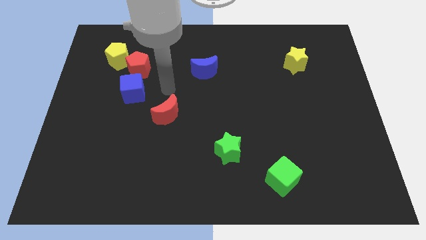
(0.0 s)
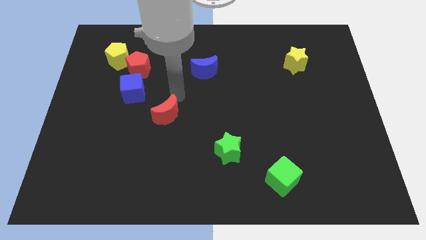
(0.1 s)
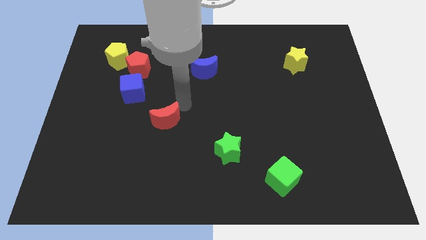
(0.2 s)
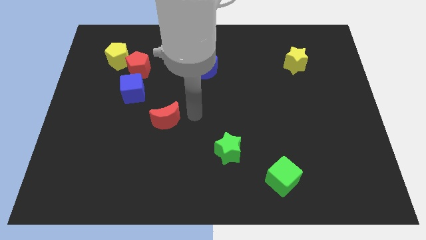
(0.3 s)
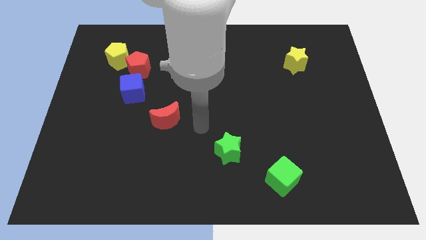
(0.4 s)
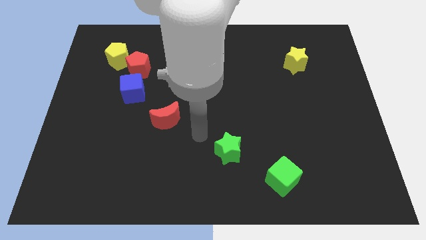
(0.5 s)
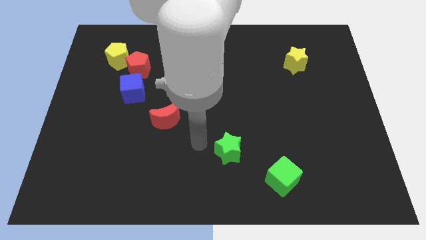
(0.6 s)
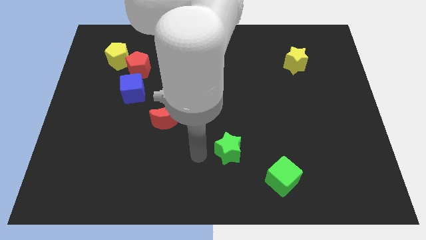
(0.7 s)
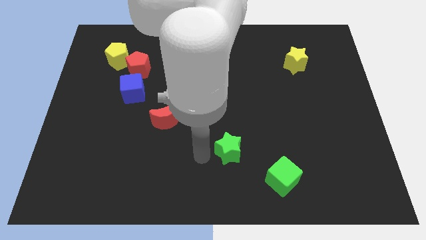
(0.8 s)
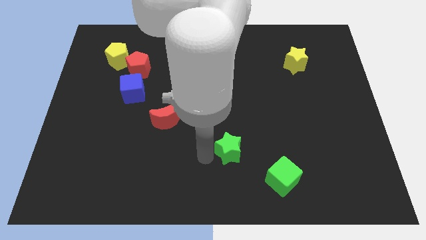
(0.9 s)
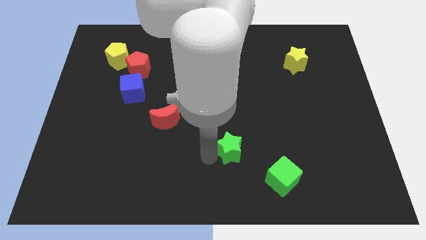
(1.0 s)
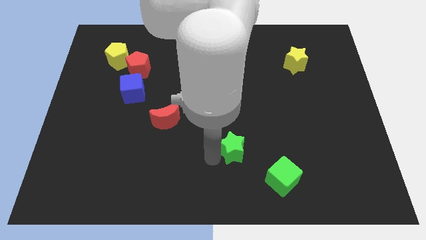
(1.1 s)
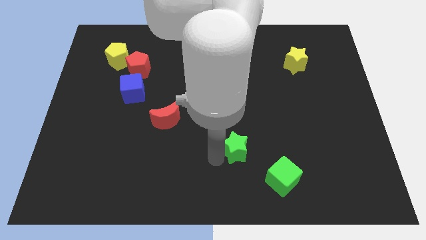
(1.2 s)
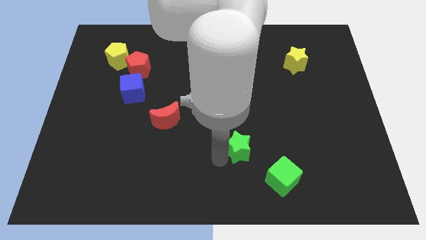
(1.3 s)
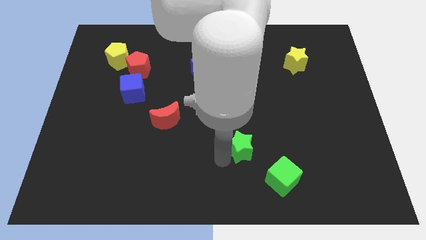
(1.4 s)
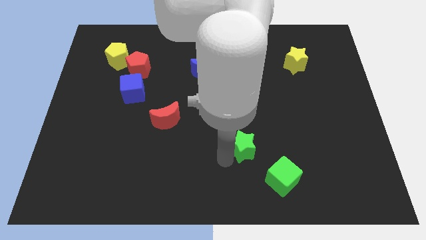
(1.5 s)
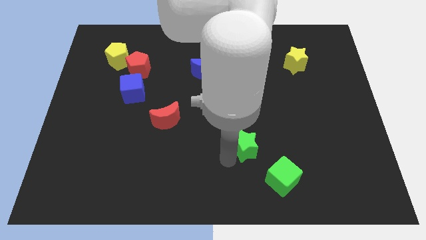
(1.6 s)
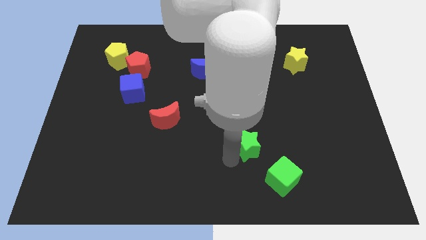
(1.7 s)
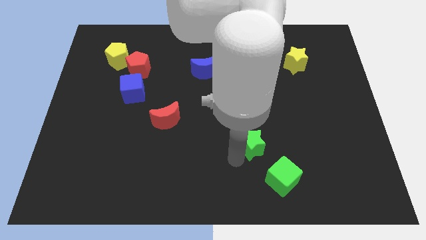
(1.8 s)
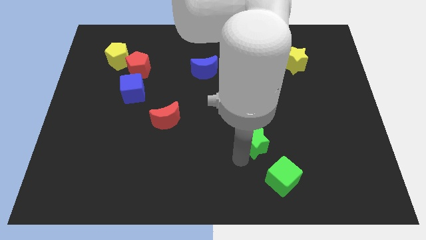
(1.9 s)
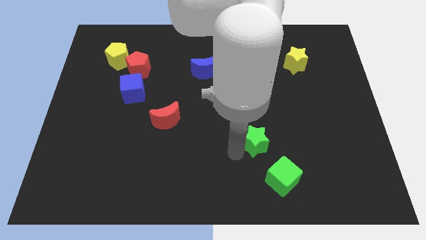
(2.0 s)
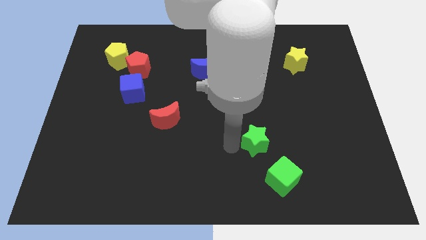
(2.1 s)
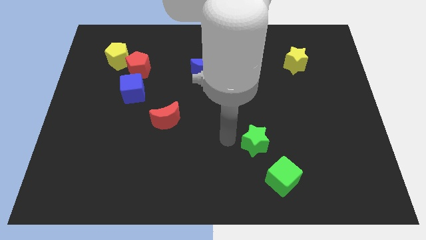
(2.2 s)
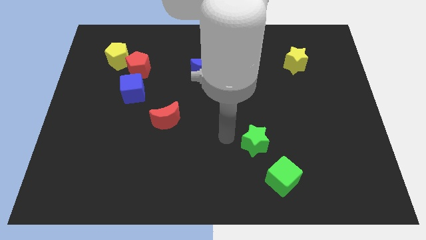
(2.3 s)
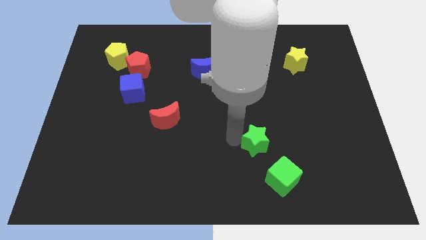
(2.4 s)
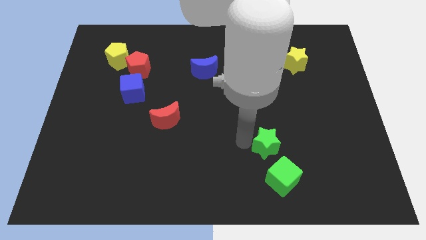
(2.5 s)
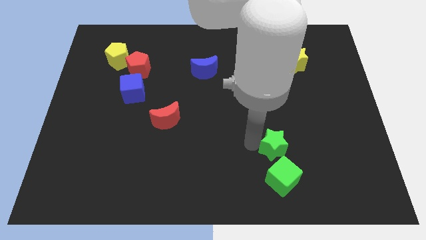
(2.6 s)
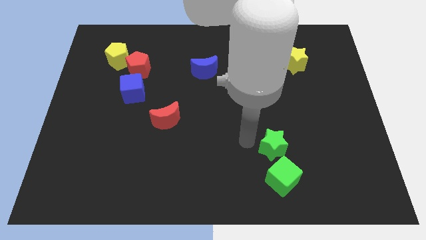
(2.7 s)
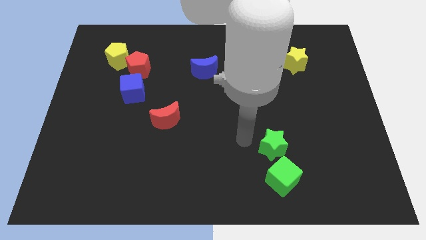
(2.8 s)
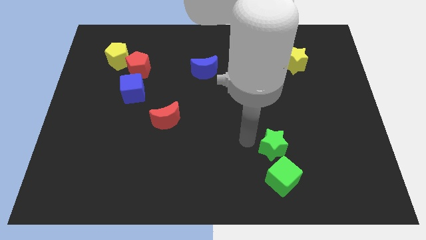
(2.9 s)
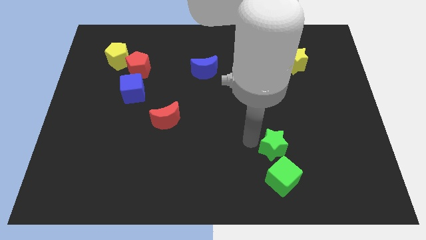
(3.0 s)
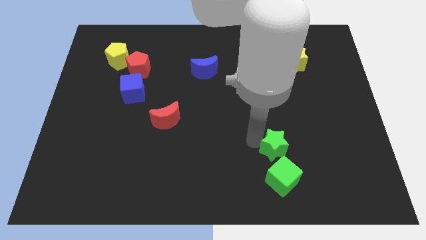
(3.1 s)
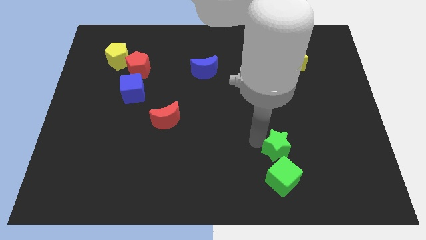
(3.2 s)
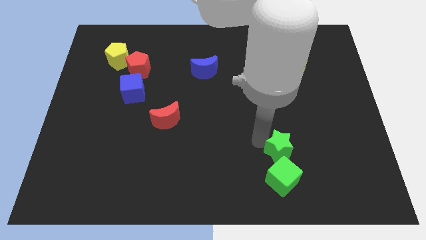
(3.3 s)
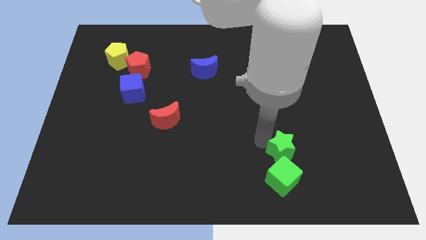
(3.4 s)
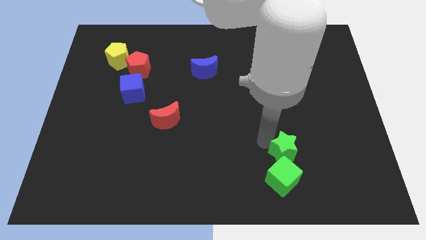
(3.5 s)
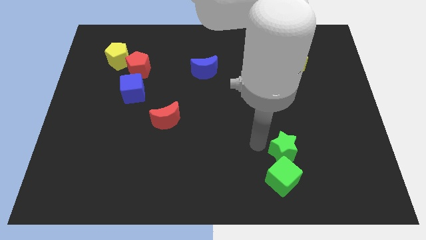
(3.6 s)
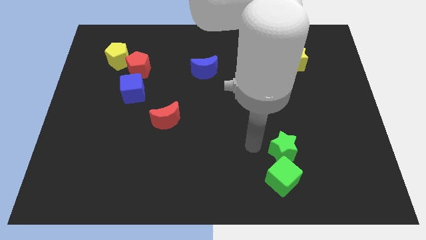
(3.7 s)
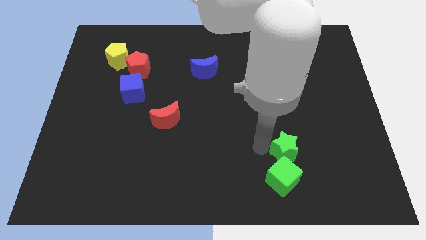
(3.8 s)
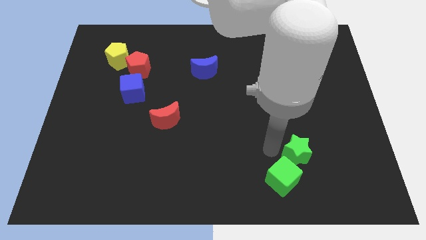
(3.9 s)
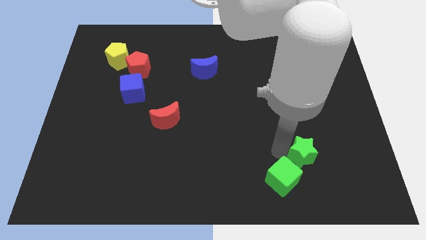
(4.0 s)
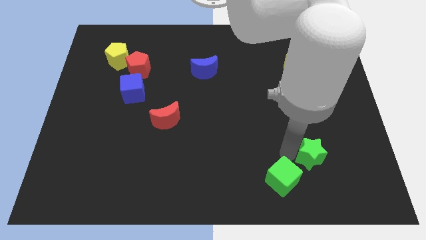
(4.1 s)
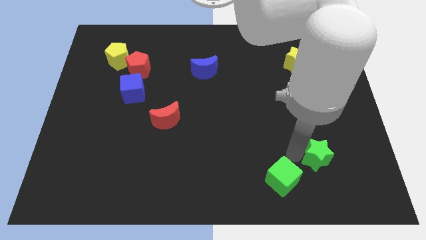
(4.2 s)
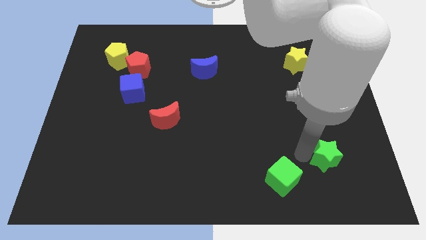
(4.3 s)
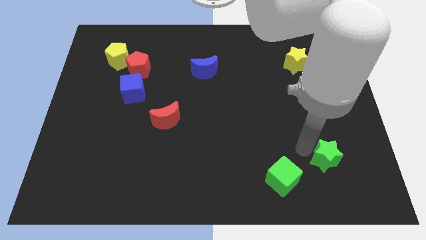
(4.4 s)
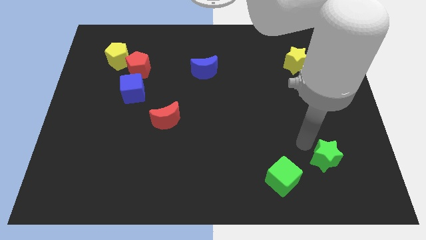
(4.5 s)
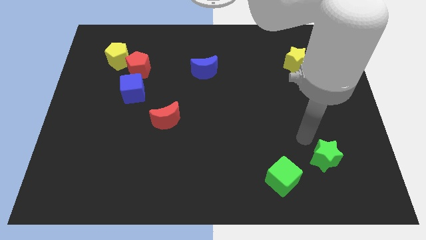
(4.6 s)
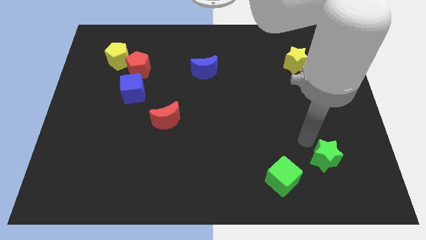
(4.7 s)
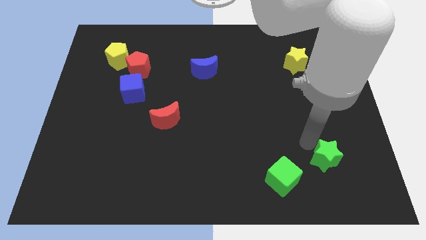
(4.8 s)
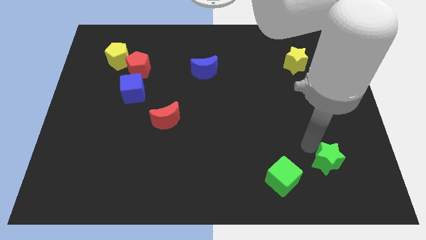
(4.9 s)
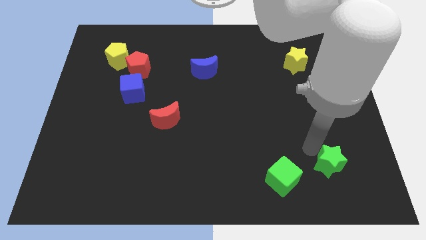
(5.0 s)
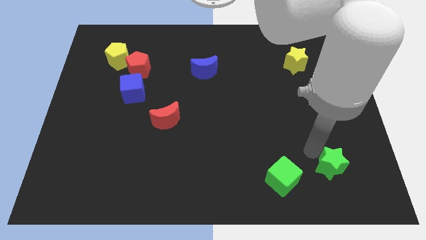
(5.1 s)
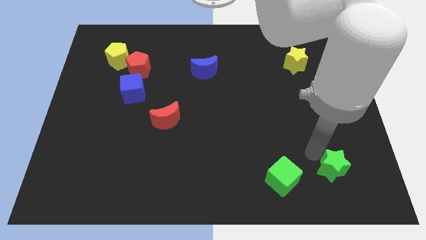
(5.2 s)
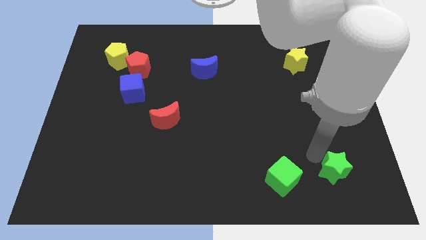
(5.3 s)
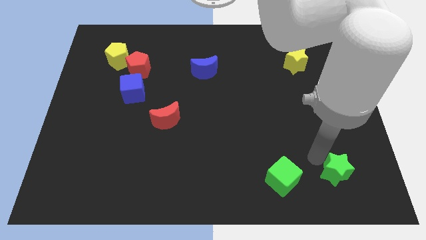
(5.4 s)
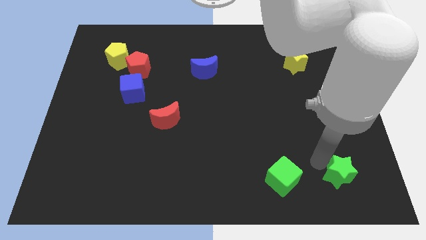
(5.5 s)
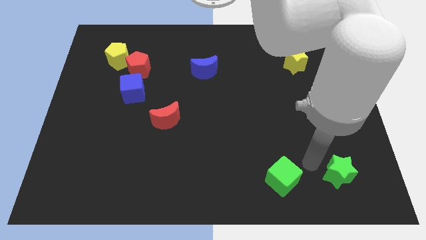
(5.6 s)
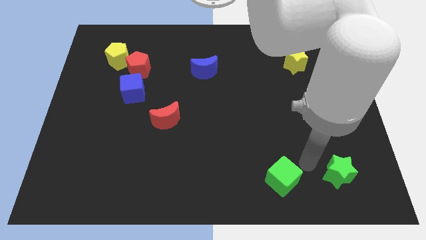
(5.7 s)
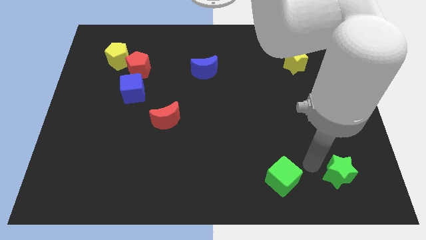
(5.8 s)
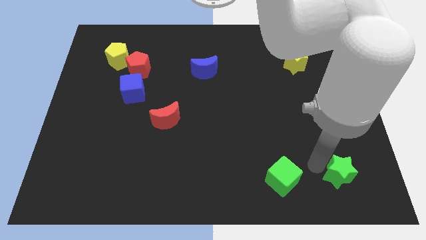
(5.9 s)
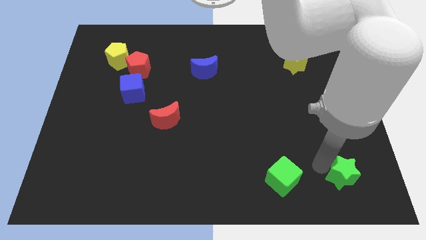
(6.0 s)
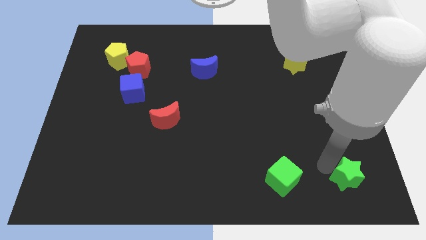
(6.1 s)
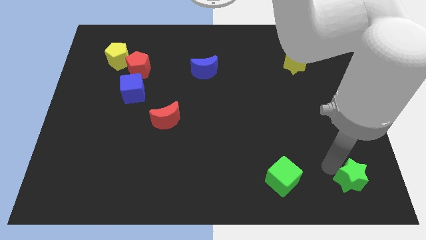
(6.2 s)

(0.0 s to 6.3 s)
move the green star to the bottom right corner

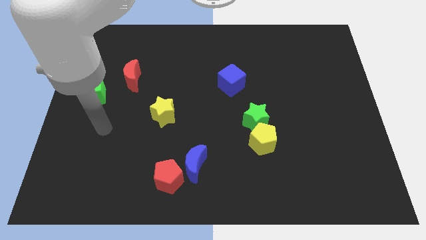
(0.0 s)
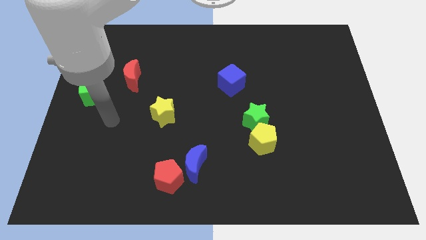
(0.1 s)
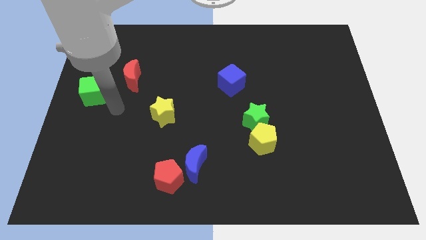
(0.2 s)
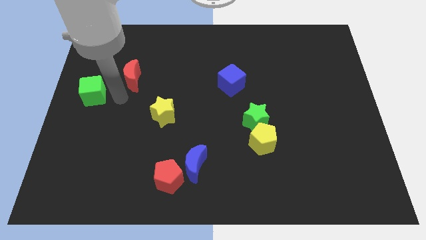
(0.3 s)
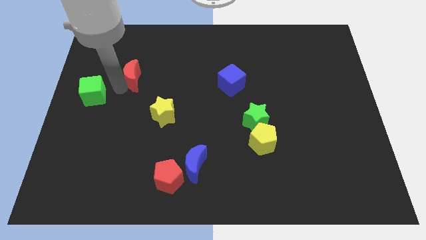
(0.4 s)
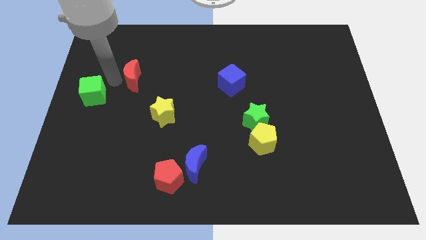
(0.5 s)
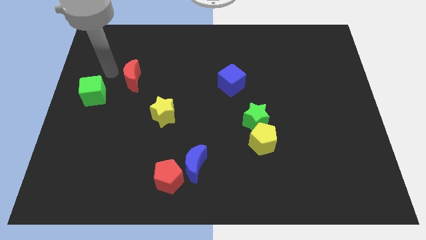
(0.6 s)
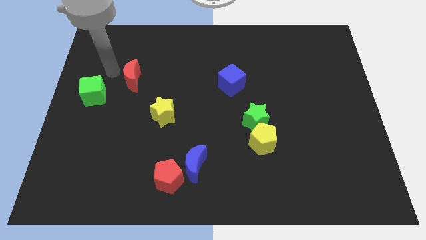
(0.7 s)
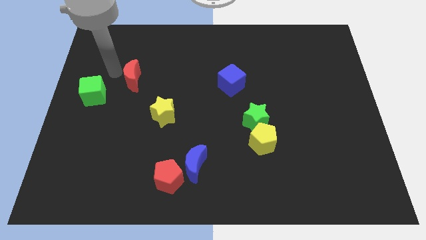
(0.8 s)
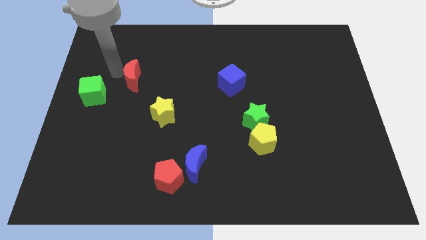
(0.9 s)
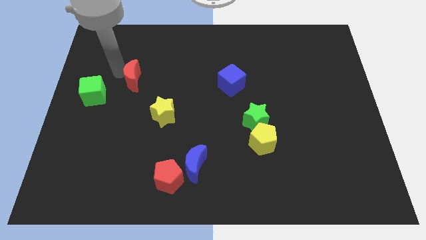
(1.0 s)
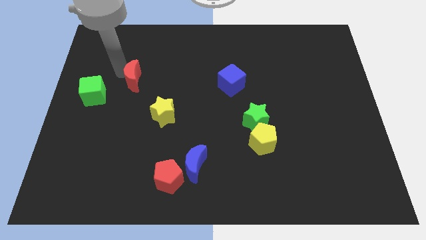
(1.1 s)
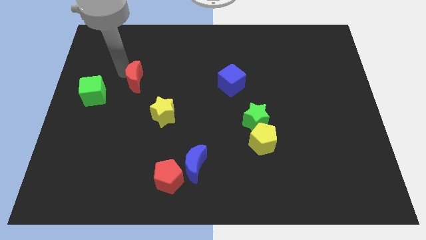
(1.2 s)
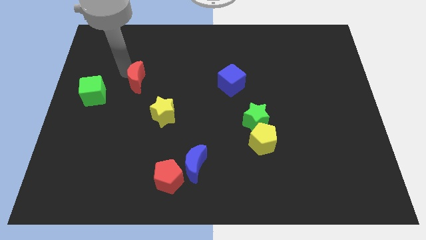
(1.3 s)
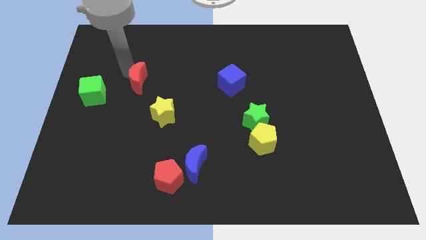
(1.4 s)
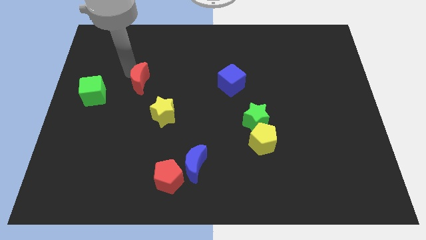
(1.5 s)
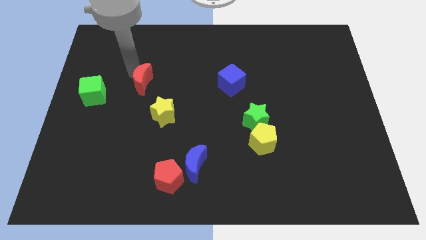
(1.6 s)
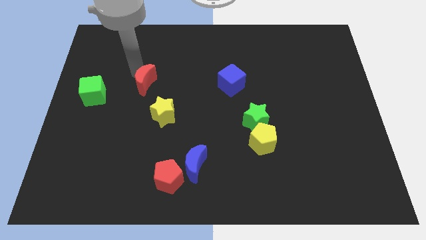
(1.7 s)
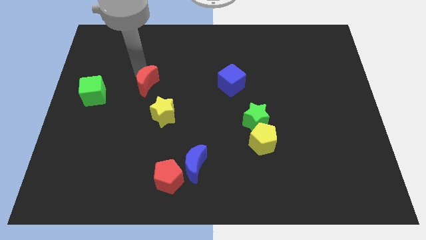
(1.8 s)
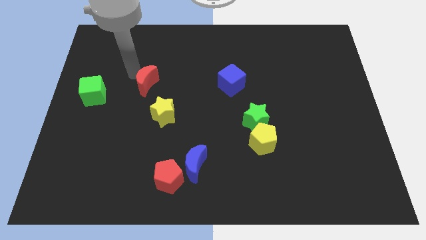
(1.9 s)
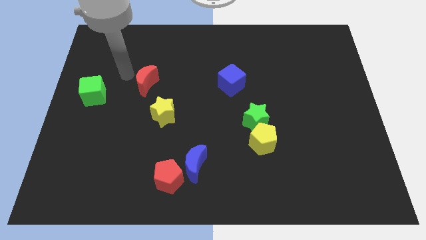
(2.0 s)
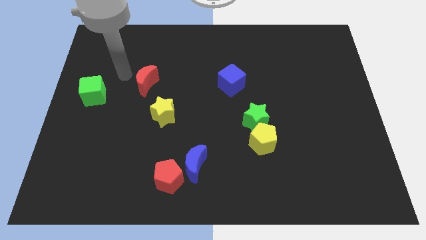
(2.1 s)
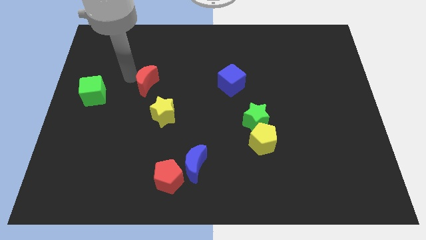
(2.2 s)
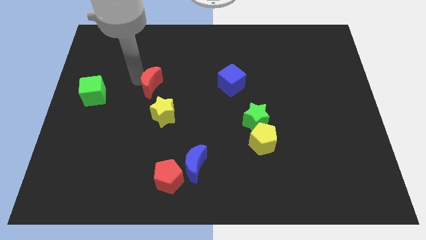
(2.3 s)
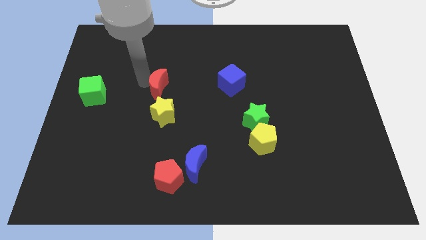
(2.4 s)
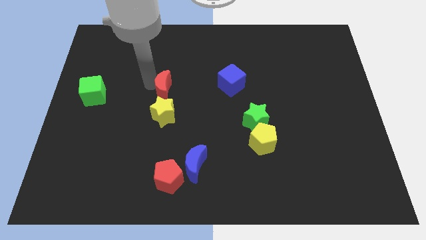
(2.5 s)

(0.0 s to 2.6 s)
slide the red moon to the middle of the board
